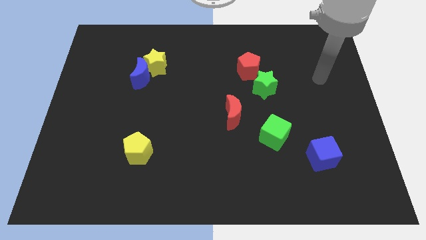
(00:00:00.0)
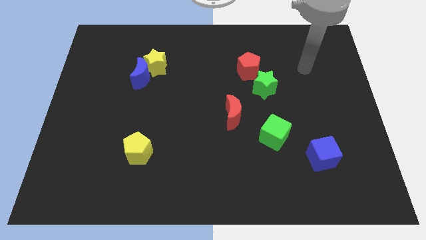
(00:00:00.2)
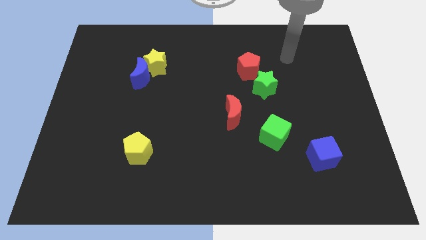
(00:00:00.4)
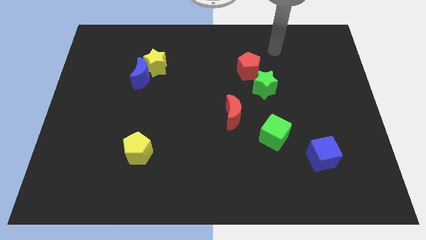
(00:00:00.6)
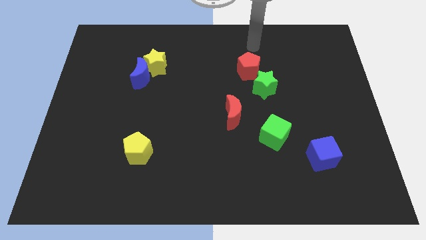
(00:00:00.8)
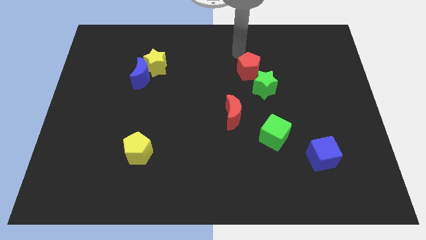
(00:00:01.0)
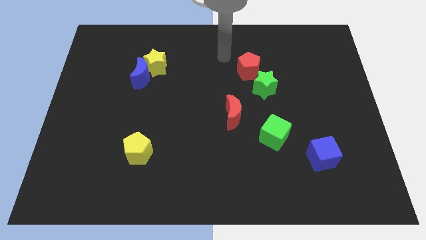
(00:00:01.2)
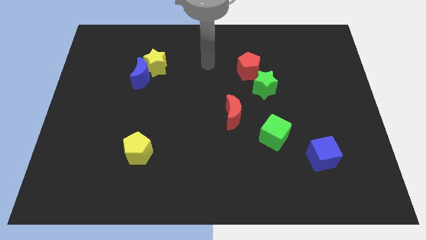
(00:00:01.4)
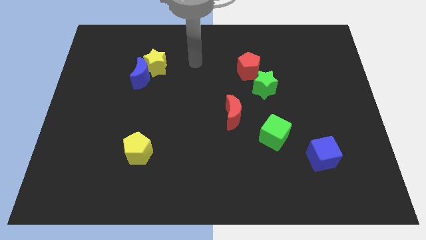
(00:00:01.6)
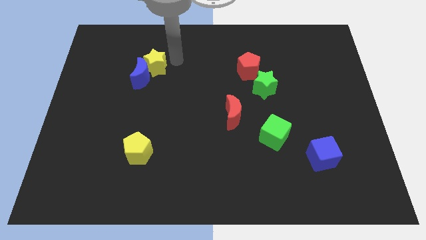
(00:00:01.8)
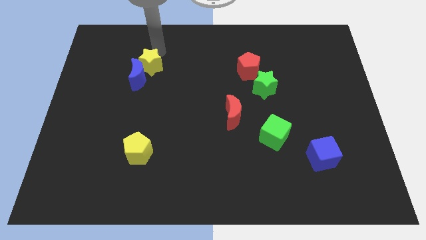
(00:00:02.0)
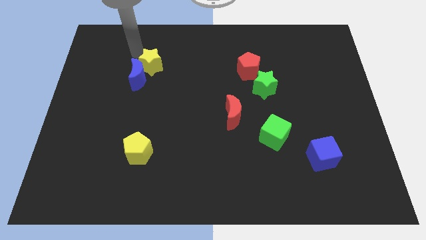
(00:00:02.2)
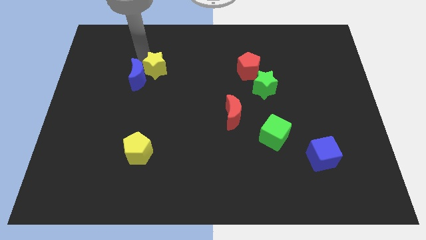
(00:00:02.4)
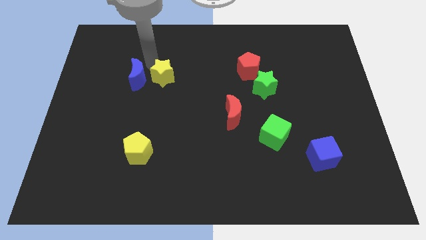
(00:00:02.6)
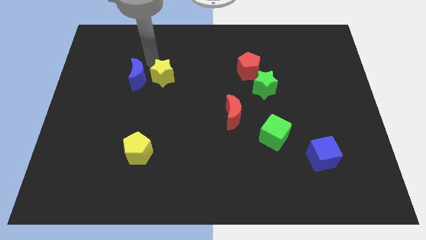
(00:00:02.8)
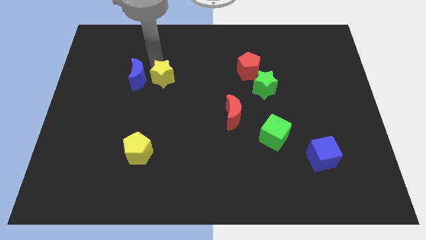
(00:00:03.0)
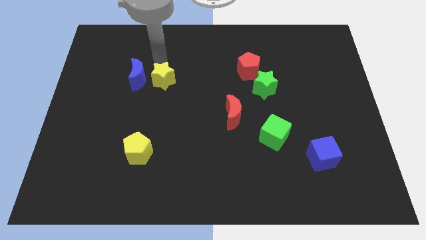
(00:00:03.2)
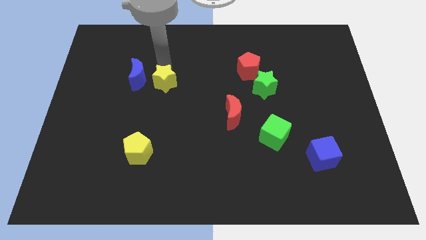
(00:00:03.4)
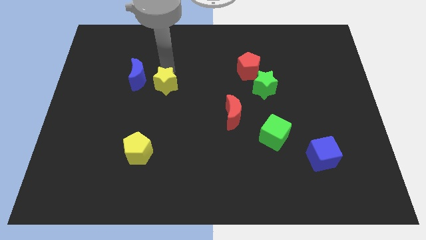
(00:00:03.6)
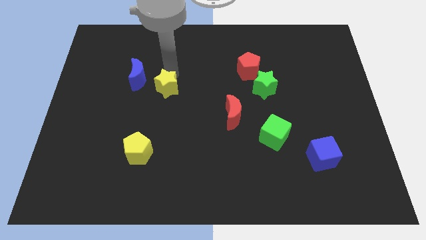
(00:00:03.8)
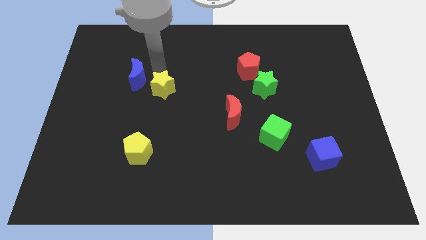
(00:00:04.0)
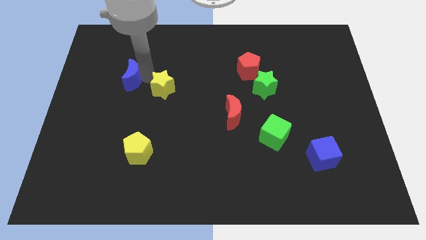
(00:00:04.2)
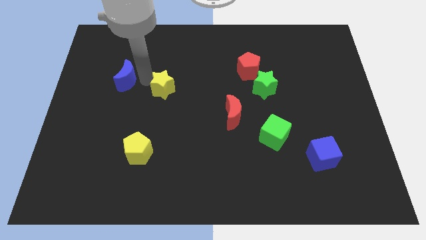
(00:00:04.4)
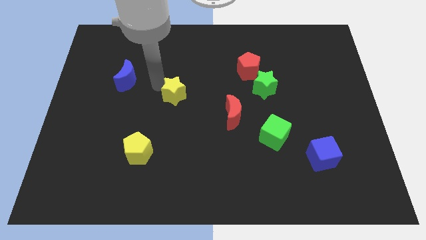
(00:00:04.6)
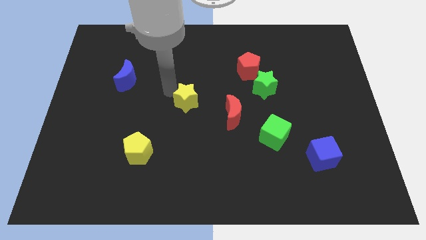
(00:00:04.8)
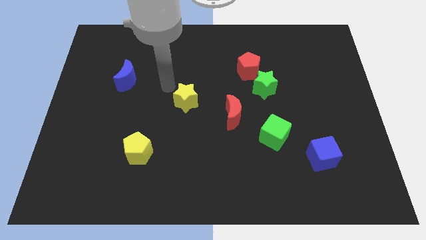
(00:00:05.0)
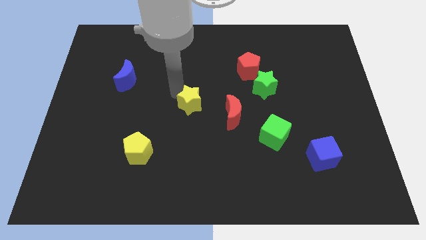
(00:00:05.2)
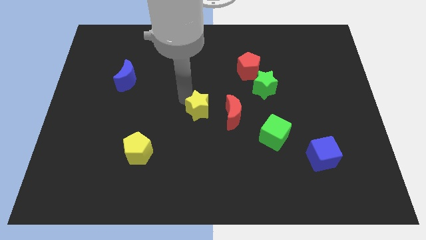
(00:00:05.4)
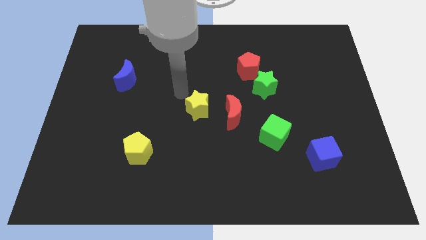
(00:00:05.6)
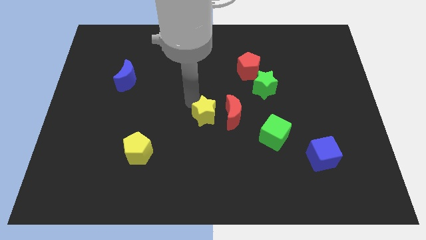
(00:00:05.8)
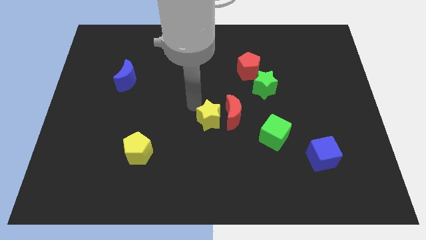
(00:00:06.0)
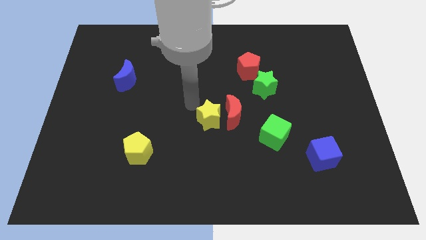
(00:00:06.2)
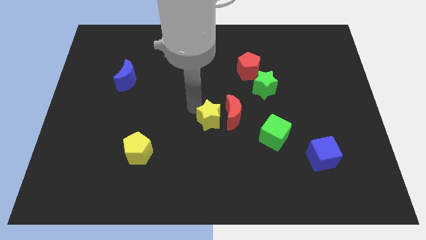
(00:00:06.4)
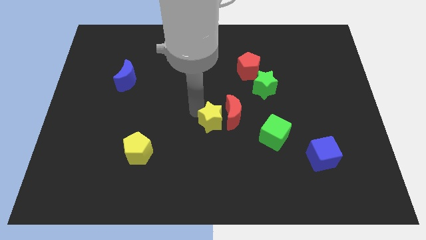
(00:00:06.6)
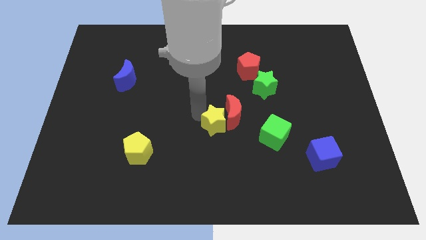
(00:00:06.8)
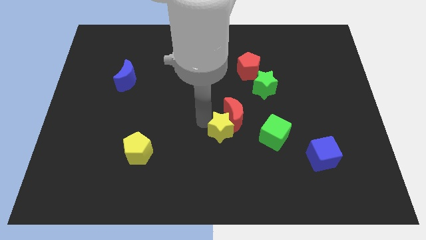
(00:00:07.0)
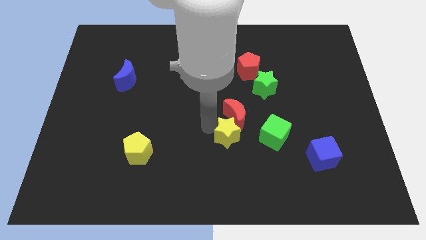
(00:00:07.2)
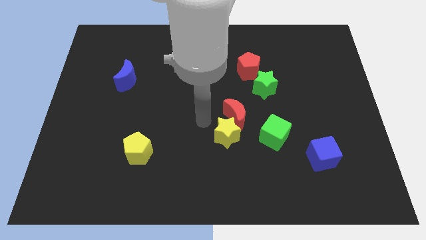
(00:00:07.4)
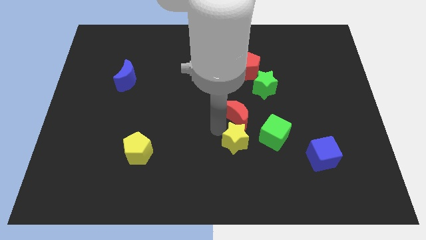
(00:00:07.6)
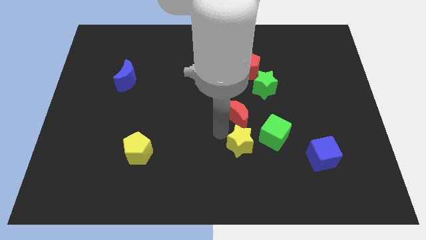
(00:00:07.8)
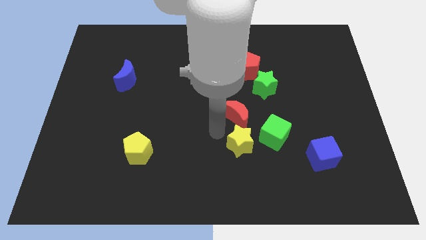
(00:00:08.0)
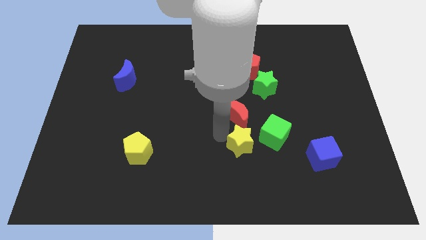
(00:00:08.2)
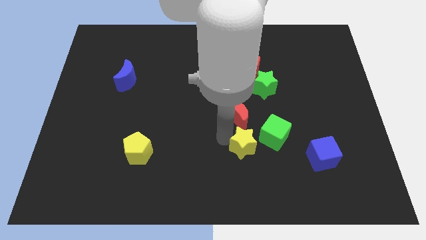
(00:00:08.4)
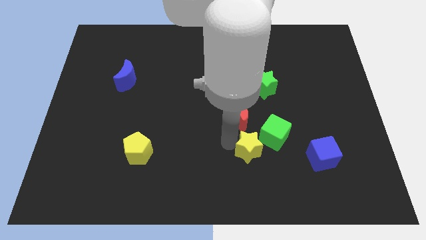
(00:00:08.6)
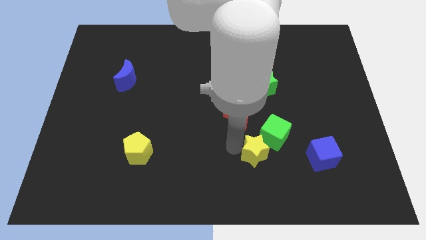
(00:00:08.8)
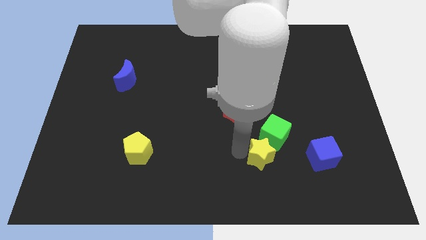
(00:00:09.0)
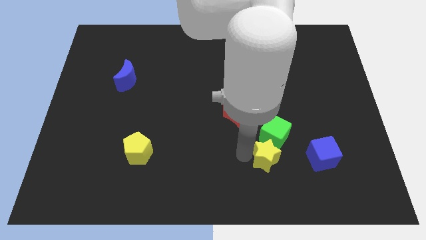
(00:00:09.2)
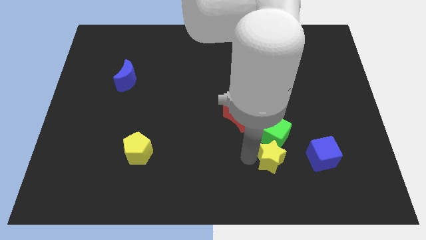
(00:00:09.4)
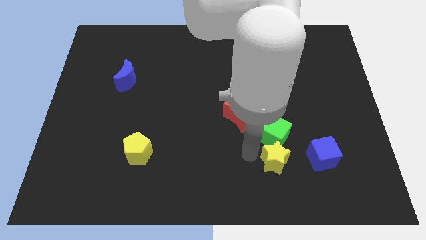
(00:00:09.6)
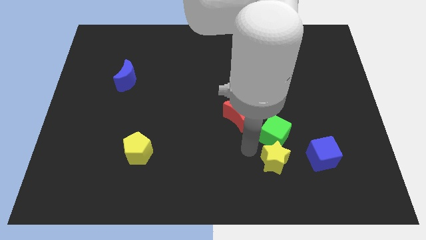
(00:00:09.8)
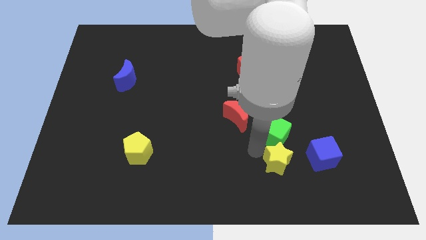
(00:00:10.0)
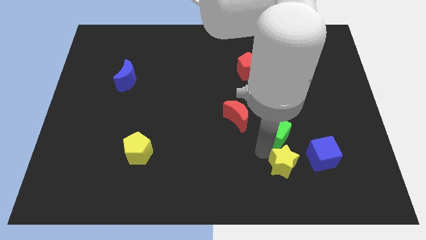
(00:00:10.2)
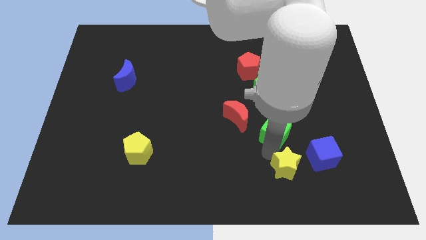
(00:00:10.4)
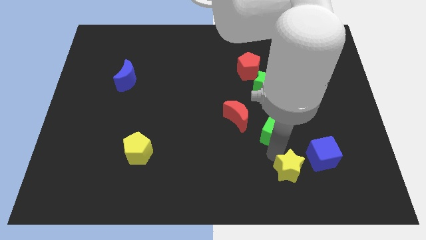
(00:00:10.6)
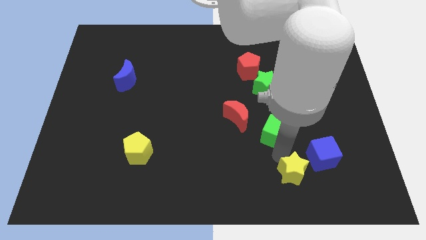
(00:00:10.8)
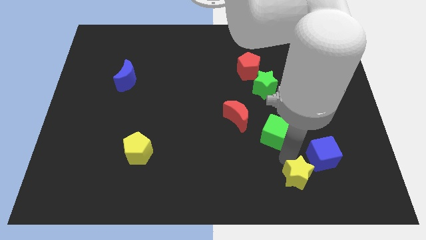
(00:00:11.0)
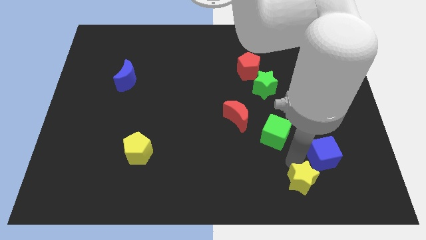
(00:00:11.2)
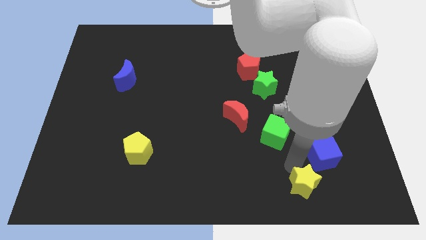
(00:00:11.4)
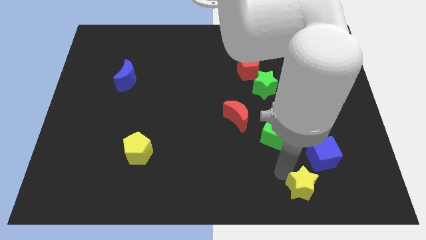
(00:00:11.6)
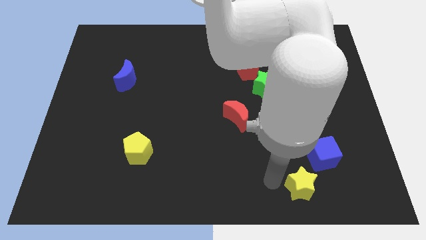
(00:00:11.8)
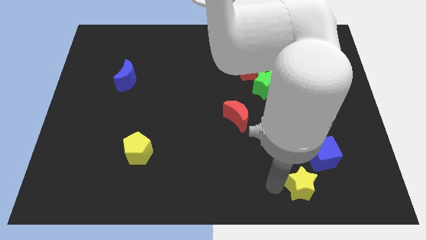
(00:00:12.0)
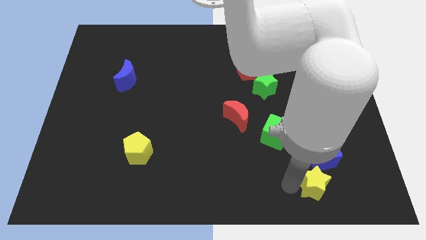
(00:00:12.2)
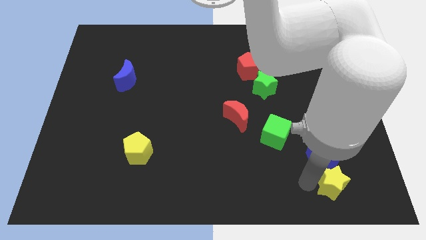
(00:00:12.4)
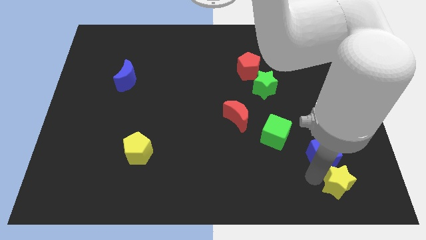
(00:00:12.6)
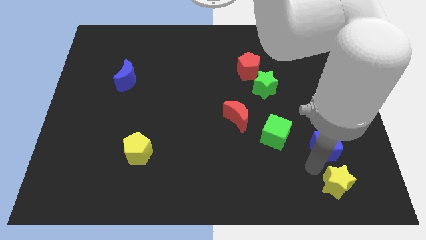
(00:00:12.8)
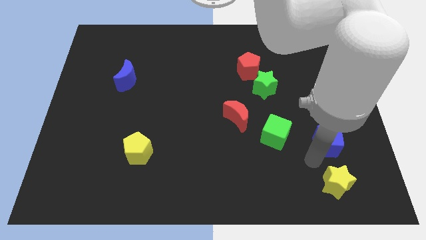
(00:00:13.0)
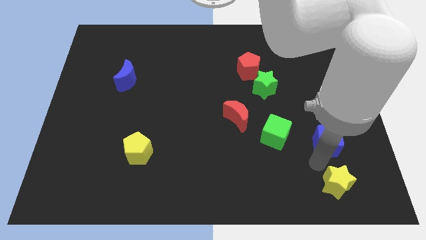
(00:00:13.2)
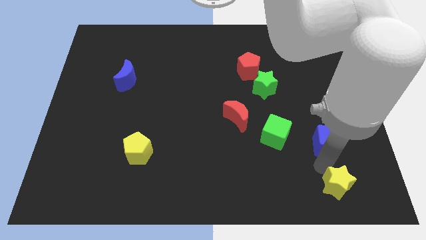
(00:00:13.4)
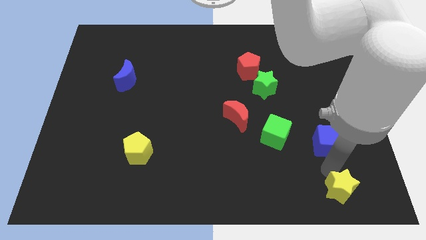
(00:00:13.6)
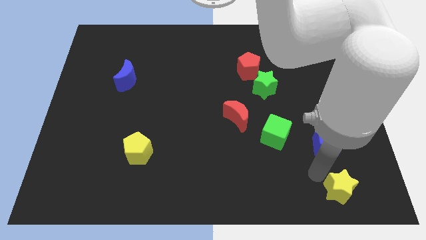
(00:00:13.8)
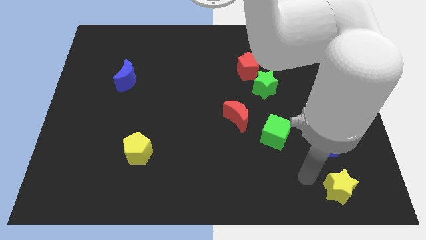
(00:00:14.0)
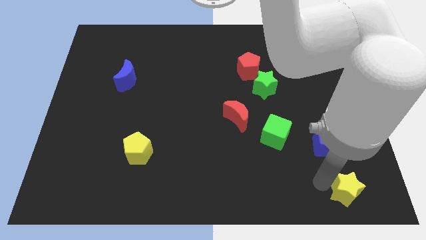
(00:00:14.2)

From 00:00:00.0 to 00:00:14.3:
put the yellow star to the bottom right corner
